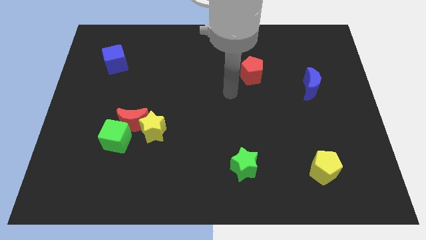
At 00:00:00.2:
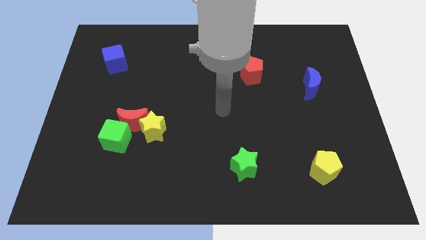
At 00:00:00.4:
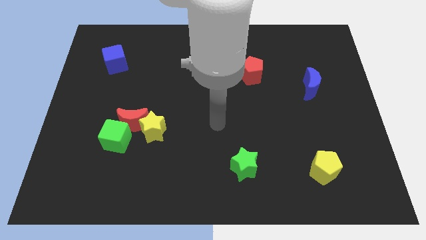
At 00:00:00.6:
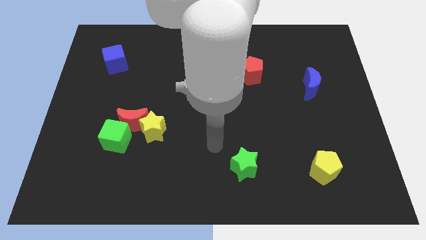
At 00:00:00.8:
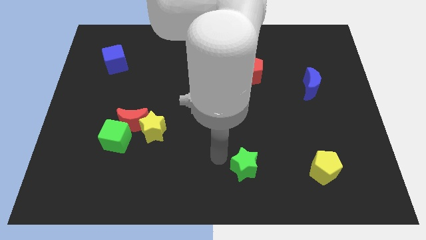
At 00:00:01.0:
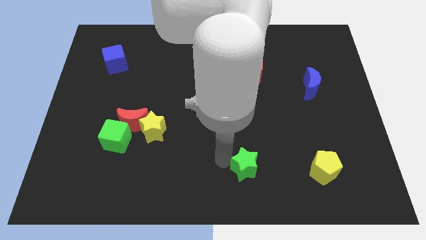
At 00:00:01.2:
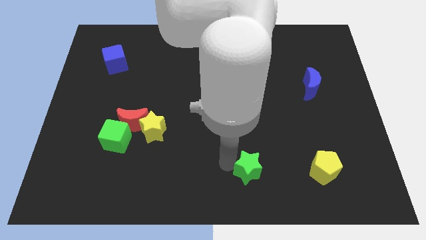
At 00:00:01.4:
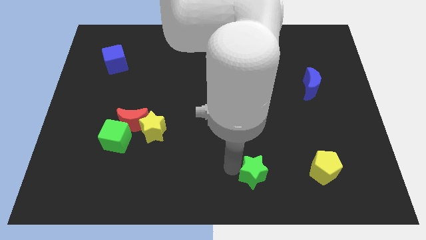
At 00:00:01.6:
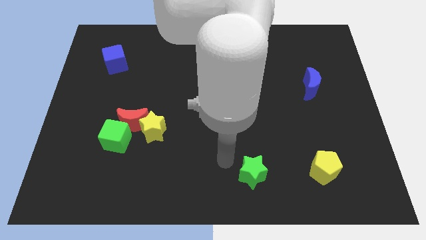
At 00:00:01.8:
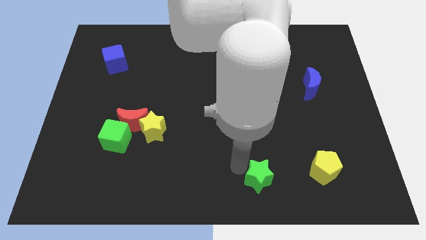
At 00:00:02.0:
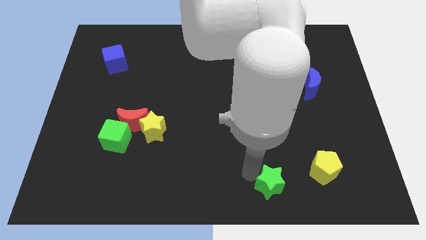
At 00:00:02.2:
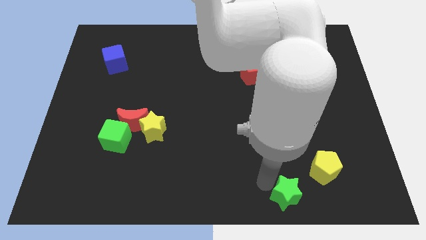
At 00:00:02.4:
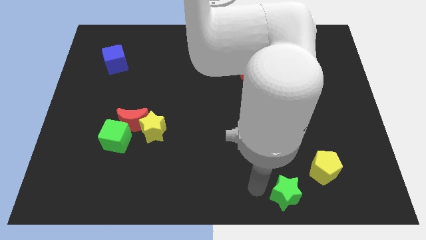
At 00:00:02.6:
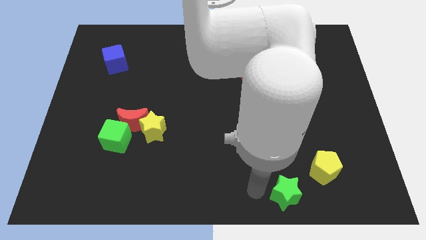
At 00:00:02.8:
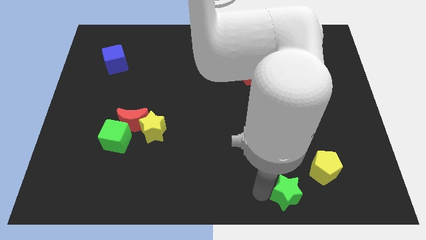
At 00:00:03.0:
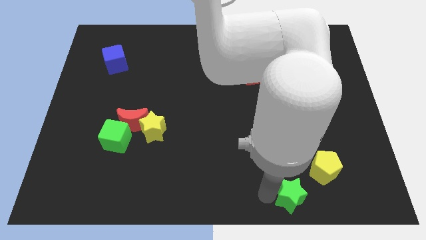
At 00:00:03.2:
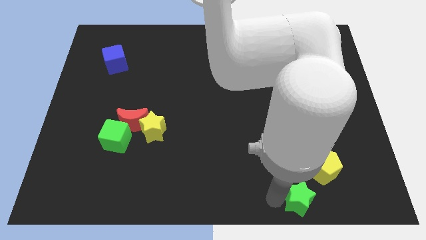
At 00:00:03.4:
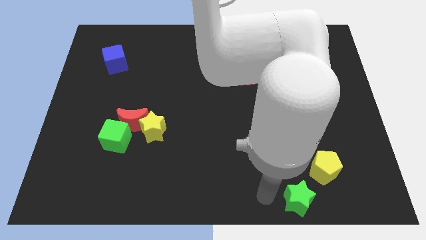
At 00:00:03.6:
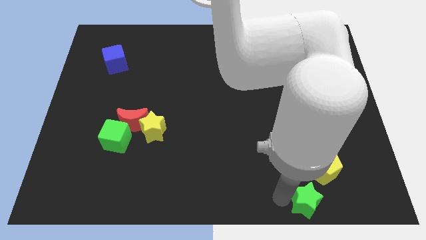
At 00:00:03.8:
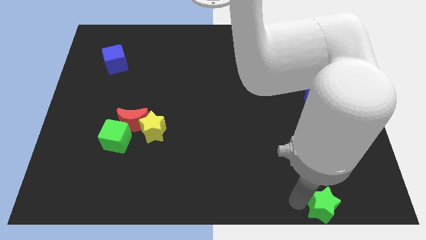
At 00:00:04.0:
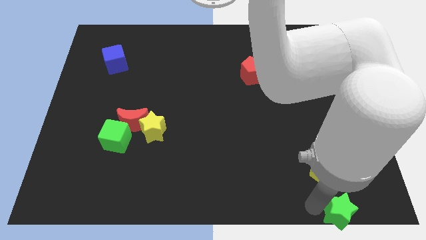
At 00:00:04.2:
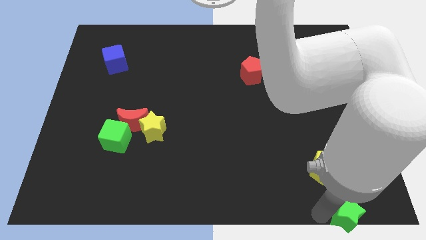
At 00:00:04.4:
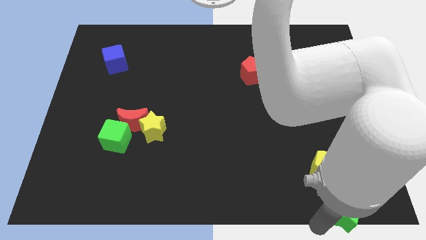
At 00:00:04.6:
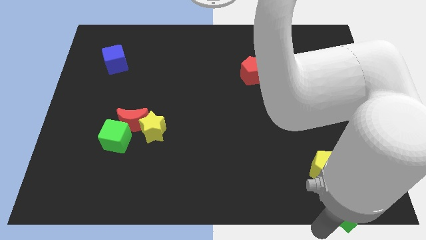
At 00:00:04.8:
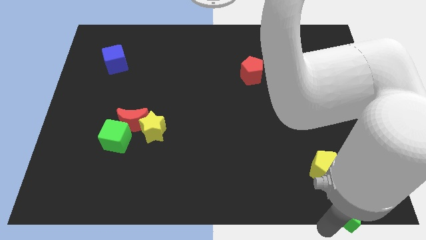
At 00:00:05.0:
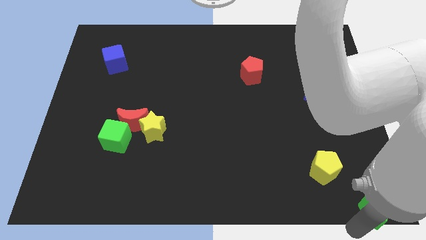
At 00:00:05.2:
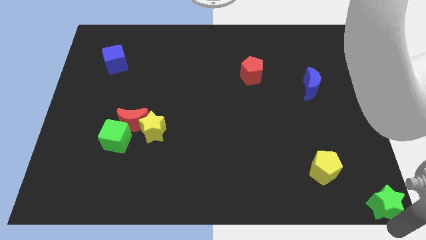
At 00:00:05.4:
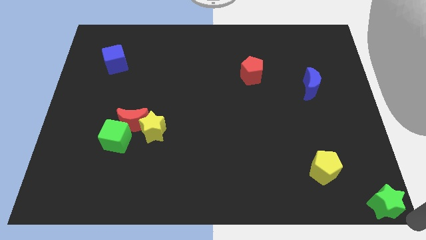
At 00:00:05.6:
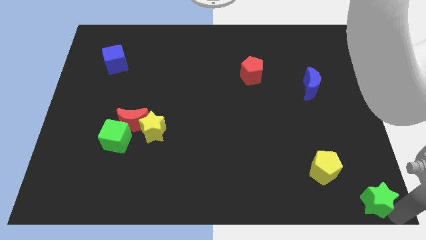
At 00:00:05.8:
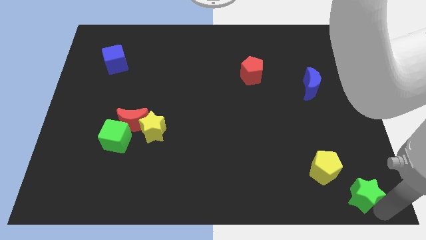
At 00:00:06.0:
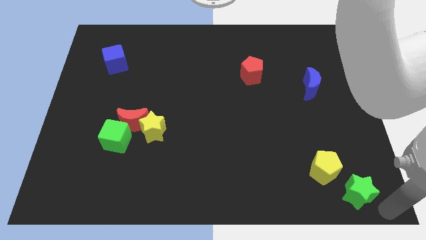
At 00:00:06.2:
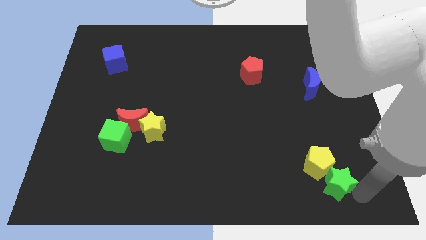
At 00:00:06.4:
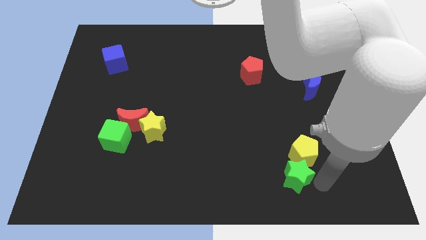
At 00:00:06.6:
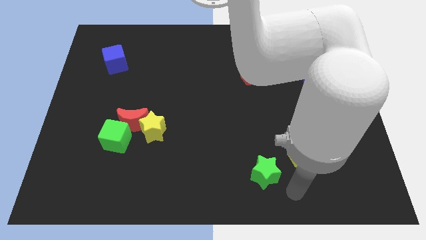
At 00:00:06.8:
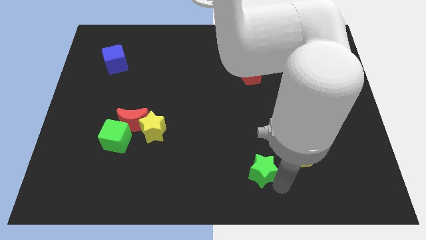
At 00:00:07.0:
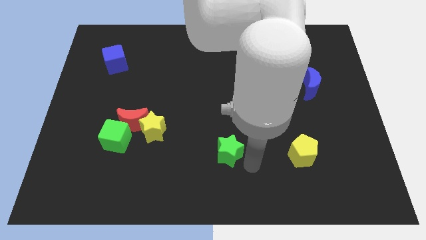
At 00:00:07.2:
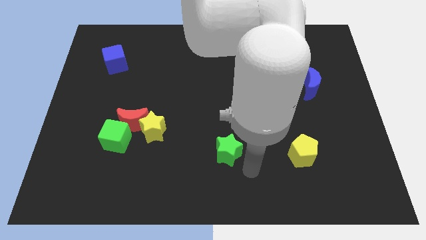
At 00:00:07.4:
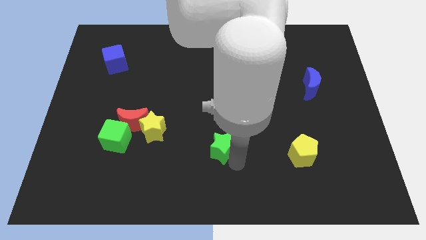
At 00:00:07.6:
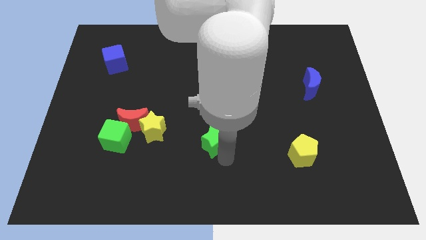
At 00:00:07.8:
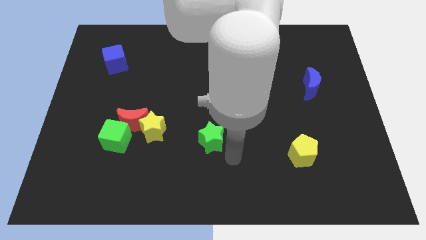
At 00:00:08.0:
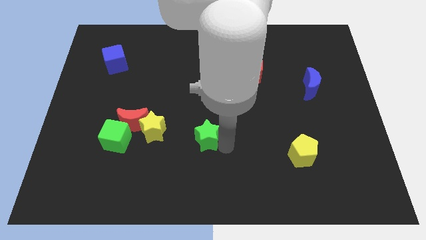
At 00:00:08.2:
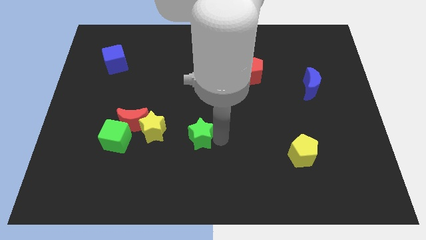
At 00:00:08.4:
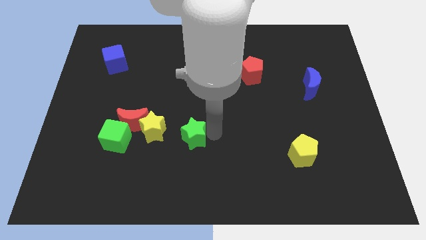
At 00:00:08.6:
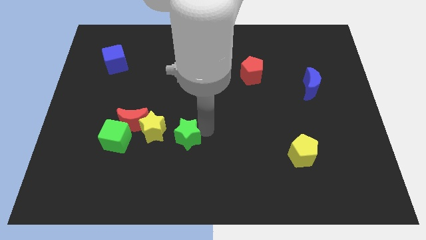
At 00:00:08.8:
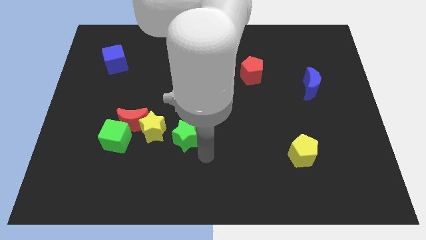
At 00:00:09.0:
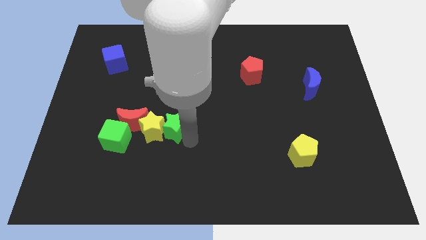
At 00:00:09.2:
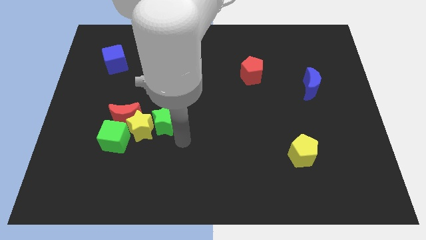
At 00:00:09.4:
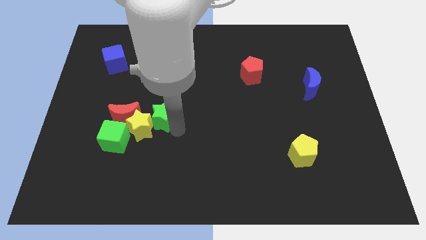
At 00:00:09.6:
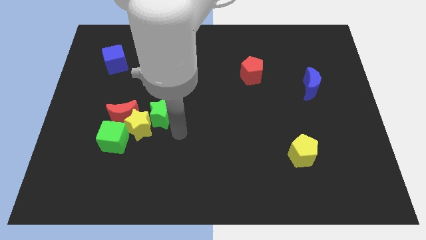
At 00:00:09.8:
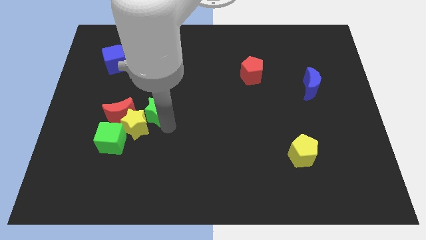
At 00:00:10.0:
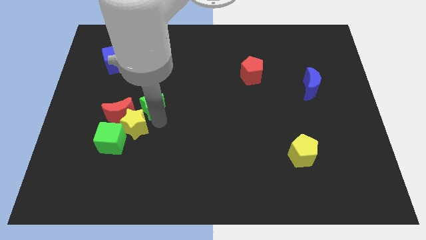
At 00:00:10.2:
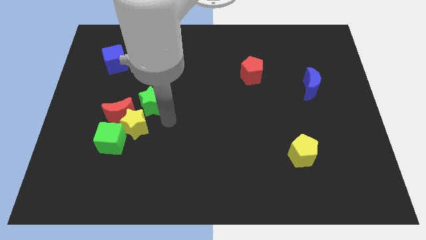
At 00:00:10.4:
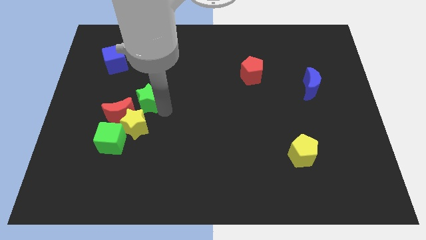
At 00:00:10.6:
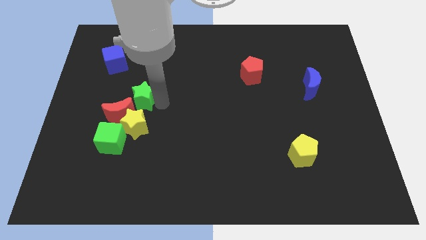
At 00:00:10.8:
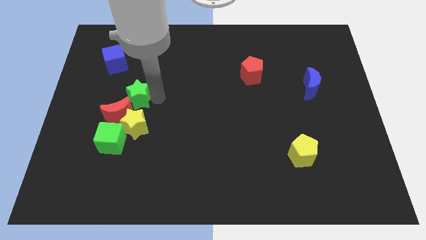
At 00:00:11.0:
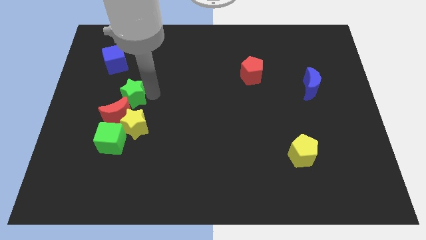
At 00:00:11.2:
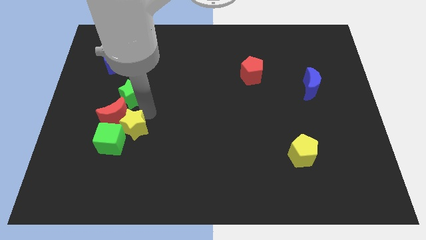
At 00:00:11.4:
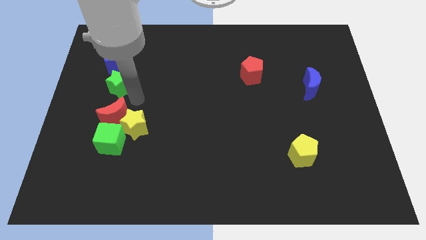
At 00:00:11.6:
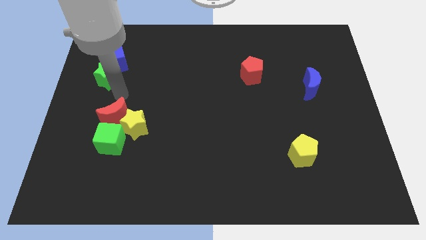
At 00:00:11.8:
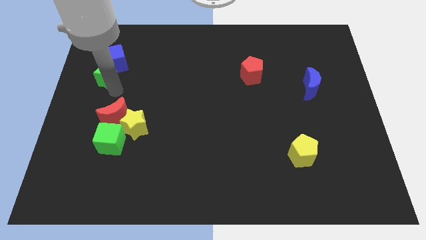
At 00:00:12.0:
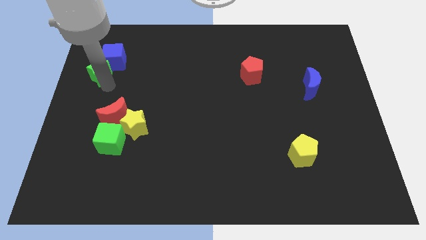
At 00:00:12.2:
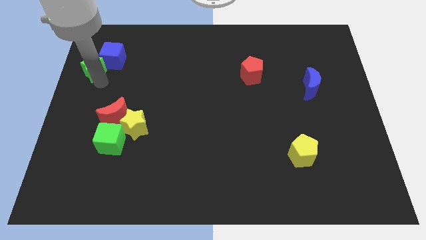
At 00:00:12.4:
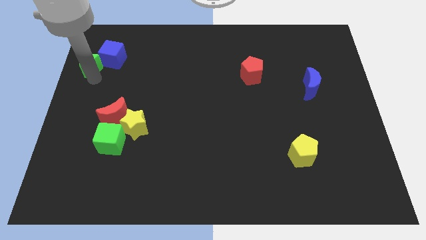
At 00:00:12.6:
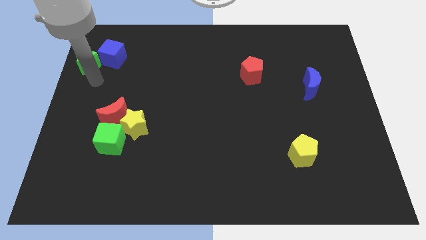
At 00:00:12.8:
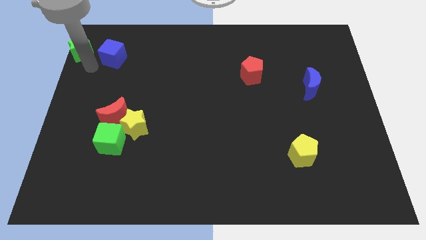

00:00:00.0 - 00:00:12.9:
put the green star to the top left corner
